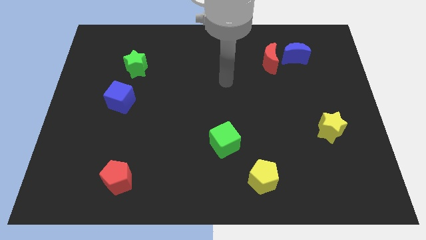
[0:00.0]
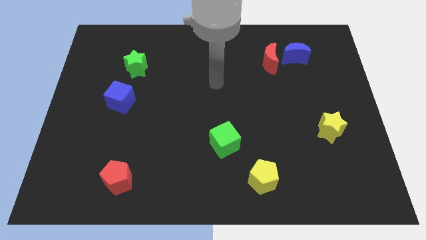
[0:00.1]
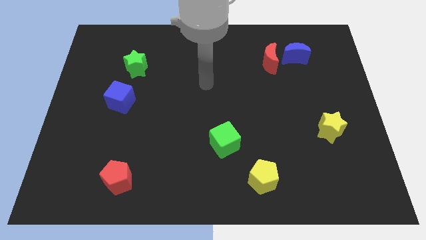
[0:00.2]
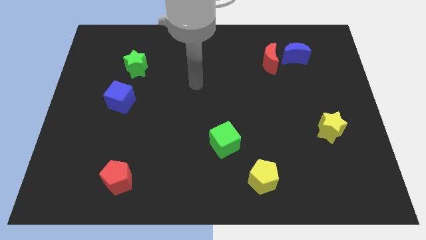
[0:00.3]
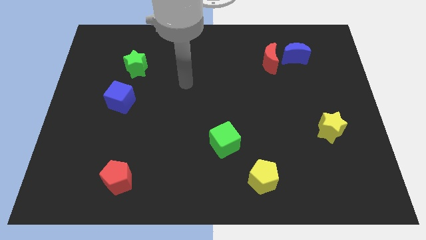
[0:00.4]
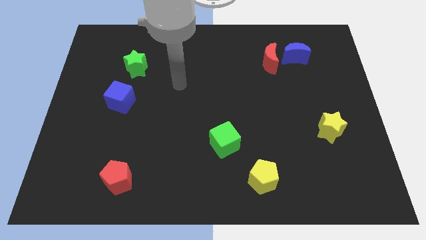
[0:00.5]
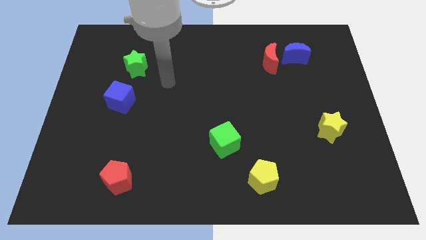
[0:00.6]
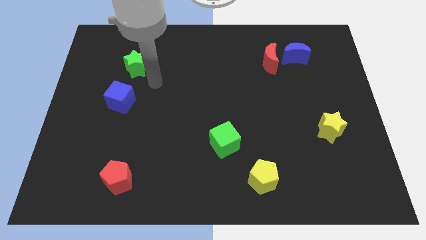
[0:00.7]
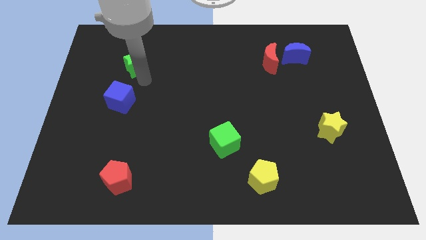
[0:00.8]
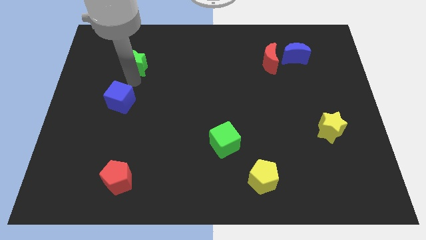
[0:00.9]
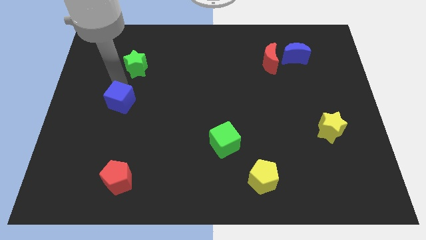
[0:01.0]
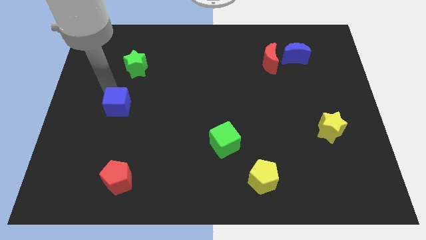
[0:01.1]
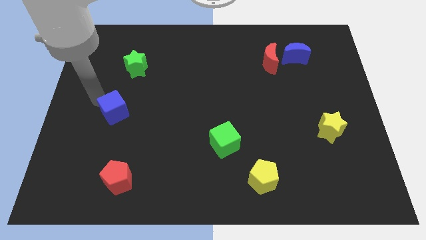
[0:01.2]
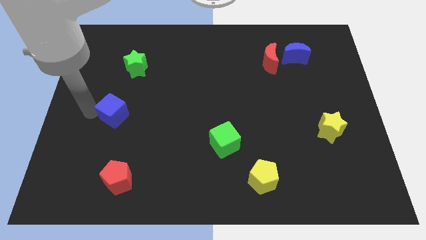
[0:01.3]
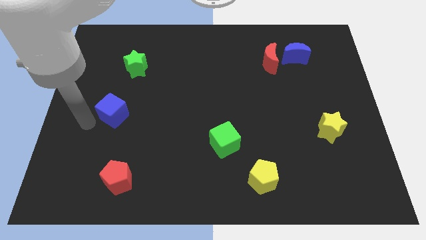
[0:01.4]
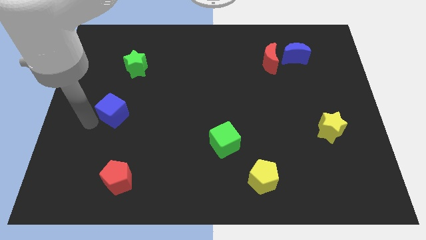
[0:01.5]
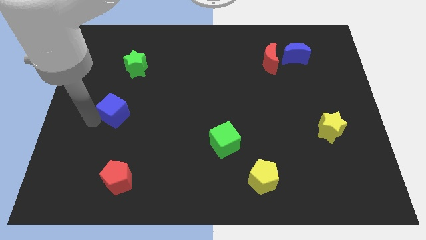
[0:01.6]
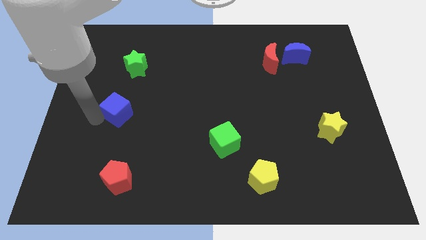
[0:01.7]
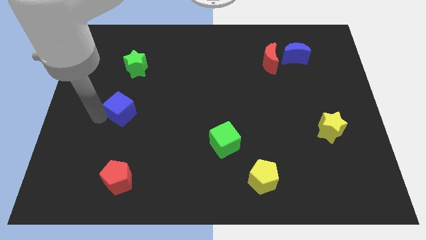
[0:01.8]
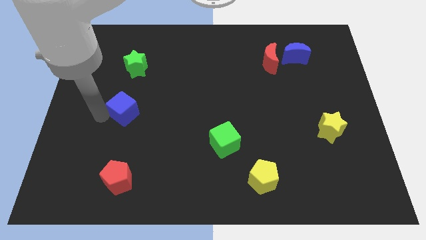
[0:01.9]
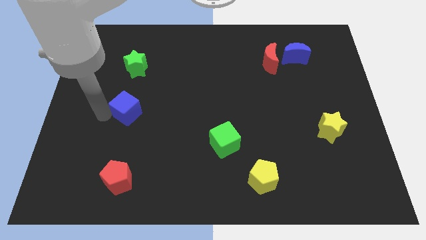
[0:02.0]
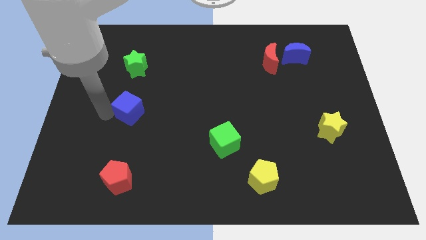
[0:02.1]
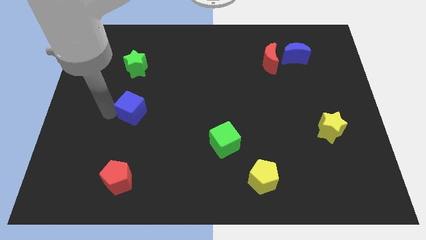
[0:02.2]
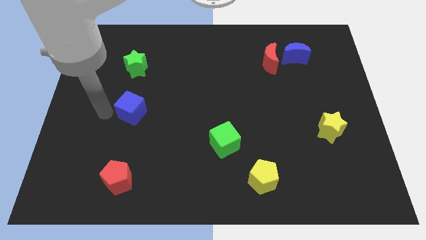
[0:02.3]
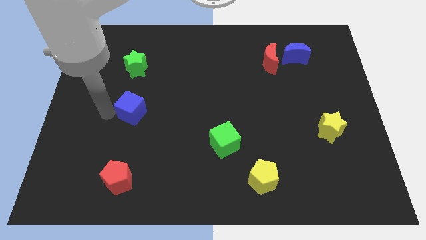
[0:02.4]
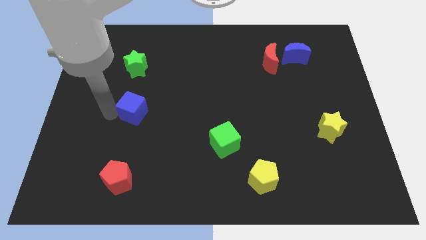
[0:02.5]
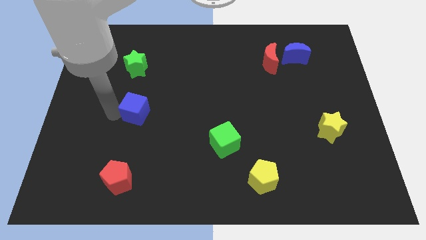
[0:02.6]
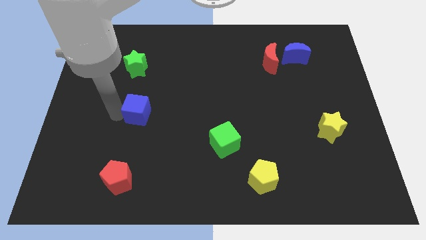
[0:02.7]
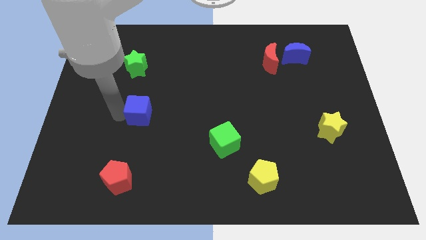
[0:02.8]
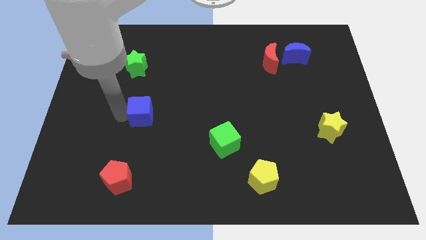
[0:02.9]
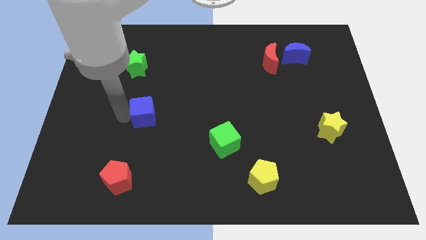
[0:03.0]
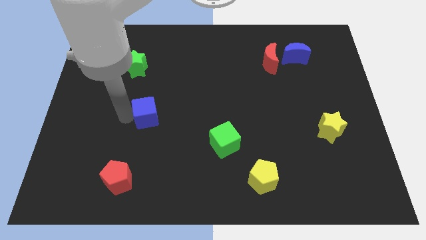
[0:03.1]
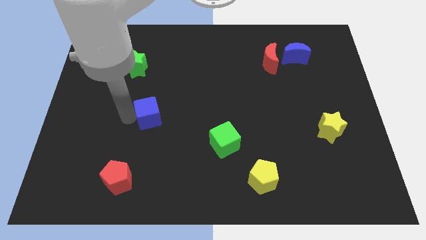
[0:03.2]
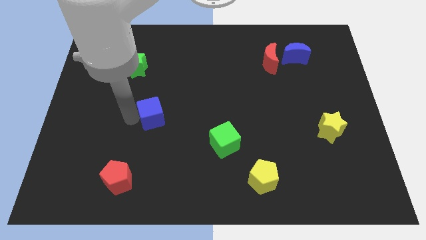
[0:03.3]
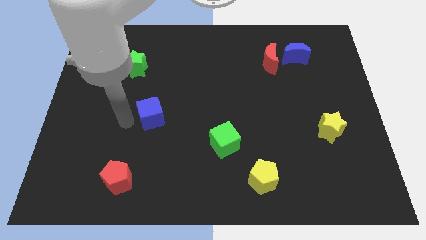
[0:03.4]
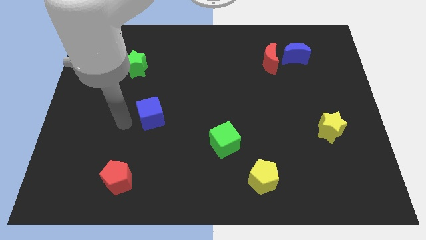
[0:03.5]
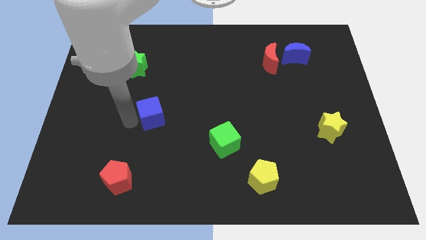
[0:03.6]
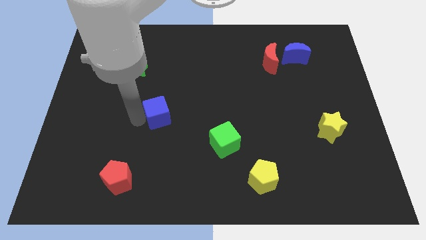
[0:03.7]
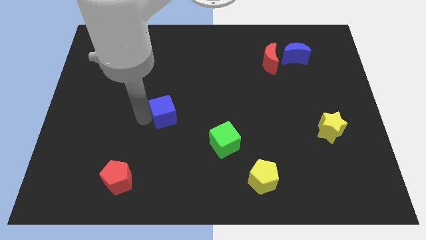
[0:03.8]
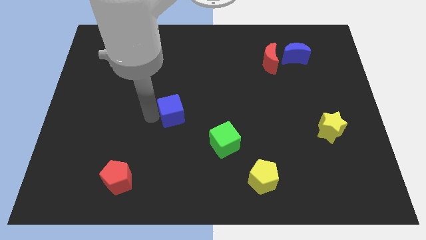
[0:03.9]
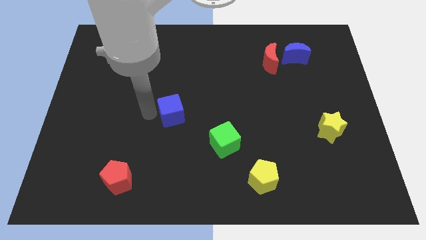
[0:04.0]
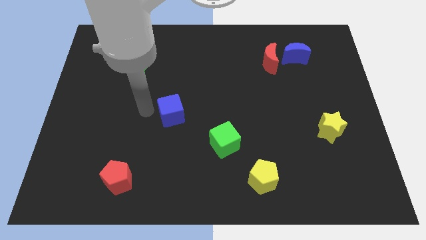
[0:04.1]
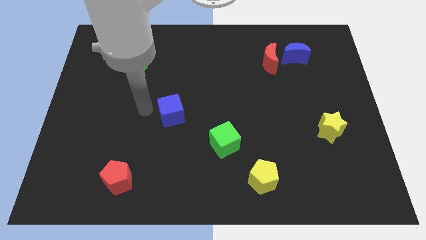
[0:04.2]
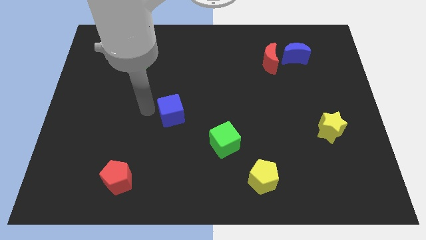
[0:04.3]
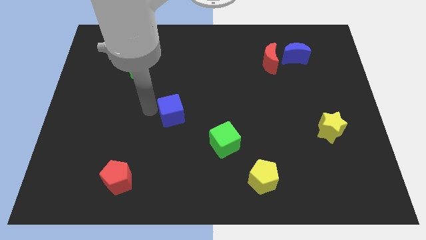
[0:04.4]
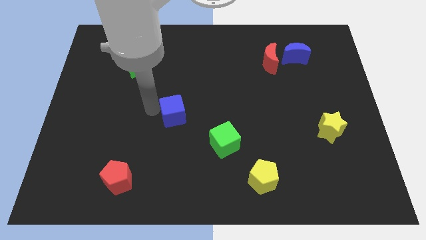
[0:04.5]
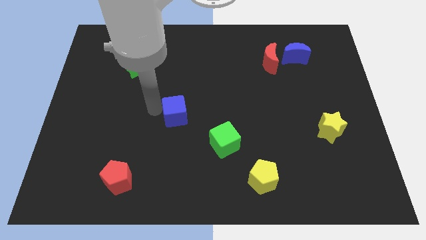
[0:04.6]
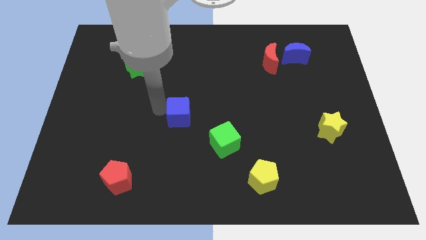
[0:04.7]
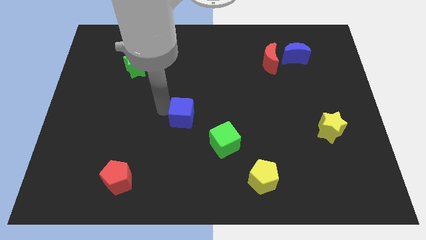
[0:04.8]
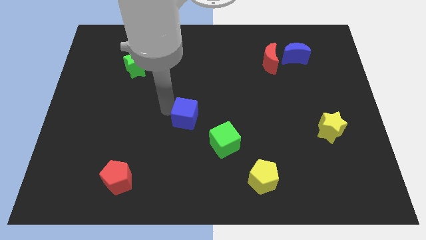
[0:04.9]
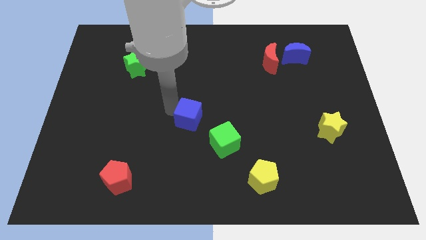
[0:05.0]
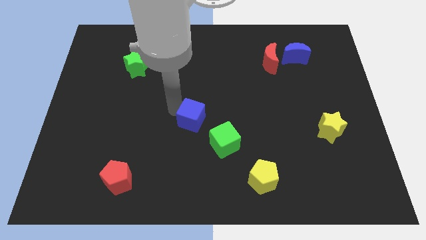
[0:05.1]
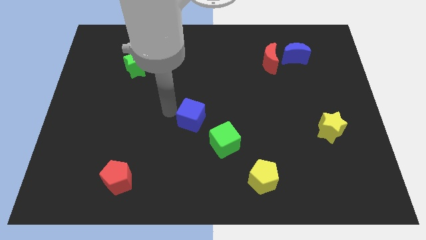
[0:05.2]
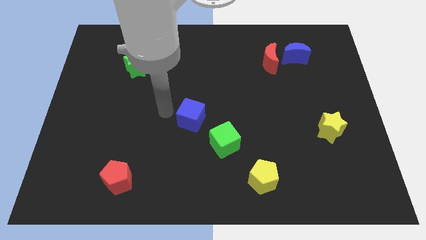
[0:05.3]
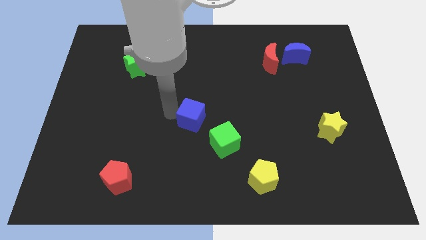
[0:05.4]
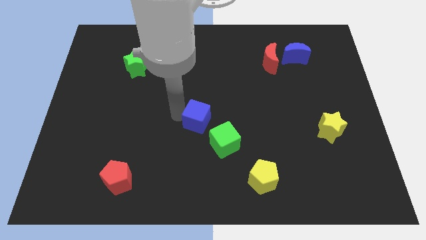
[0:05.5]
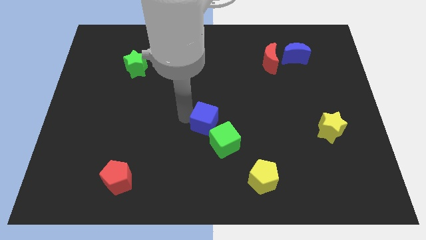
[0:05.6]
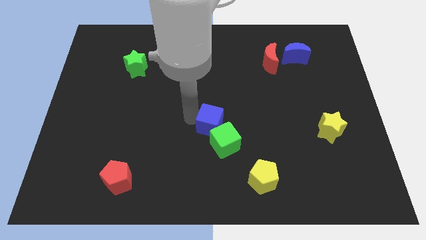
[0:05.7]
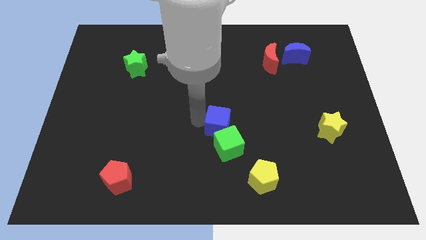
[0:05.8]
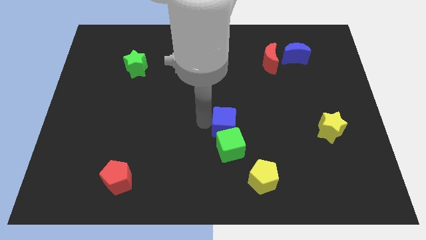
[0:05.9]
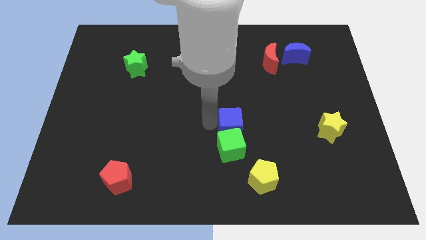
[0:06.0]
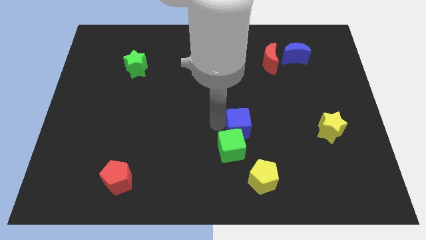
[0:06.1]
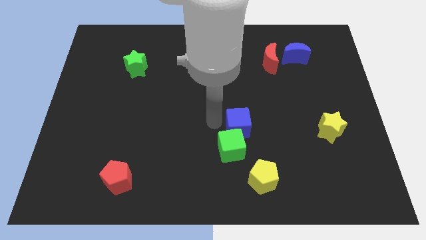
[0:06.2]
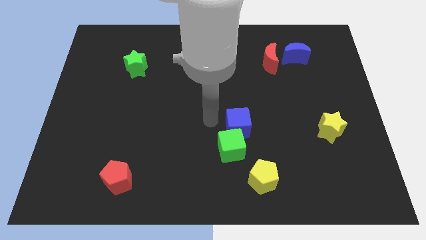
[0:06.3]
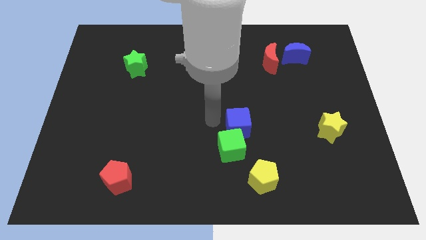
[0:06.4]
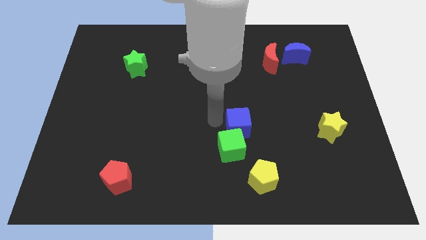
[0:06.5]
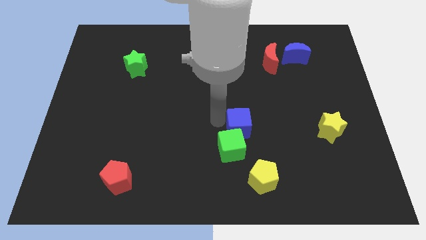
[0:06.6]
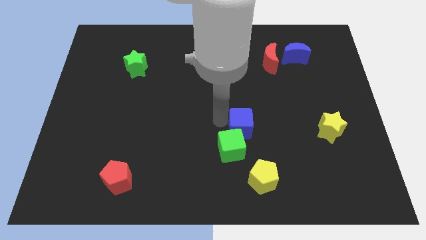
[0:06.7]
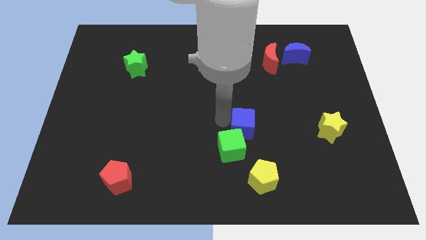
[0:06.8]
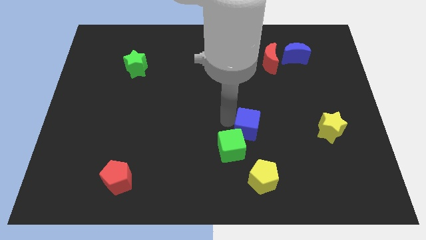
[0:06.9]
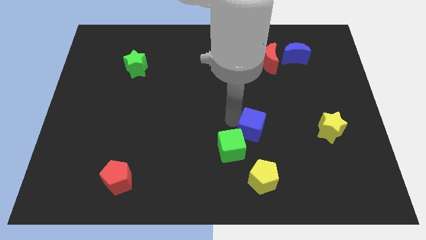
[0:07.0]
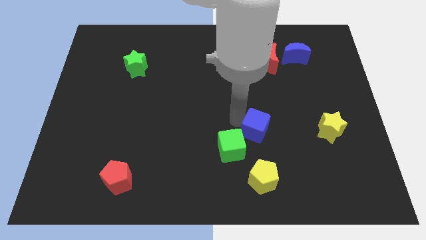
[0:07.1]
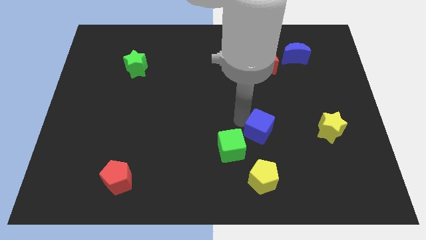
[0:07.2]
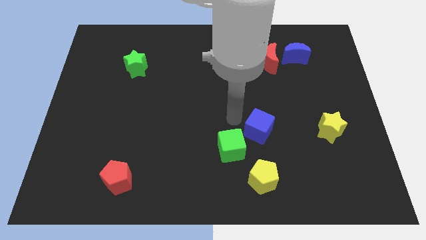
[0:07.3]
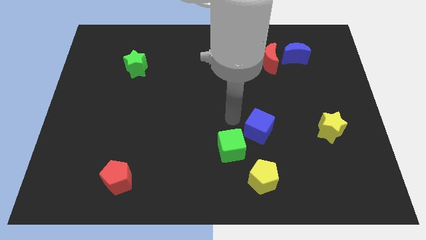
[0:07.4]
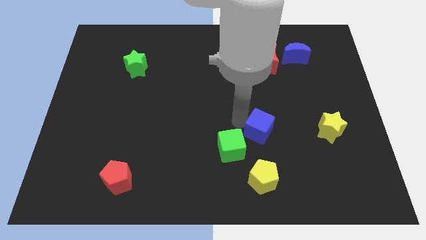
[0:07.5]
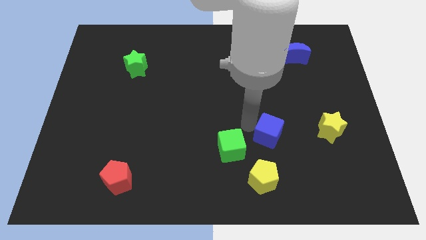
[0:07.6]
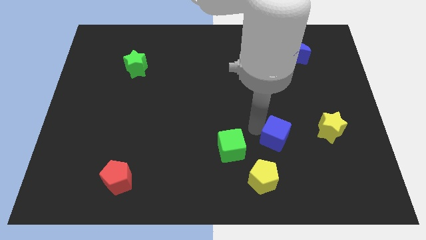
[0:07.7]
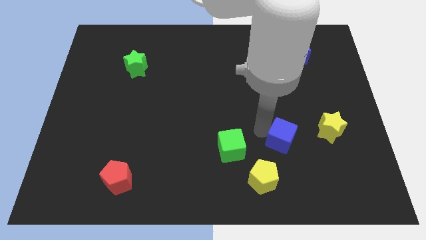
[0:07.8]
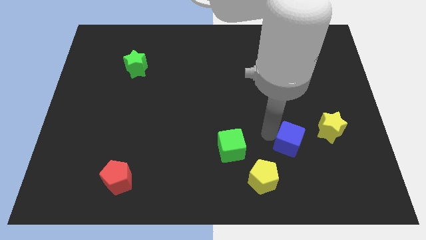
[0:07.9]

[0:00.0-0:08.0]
put the blue cube diagonally down and to the left of the yellow star
